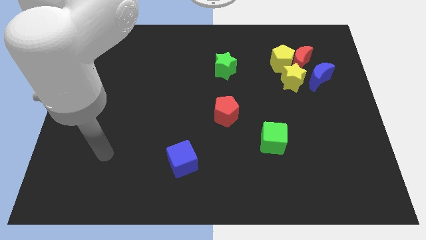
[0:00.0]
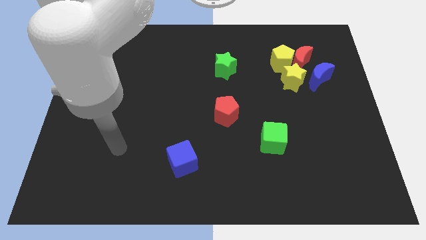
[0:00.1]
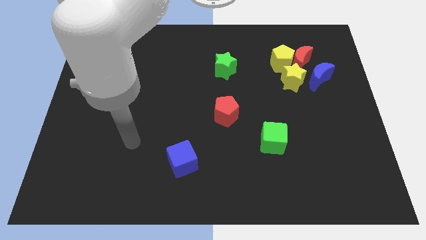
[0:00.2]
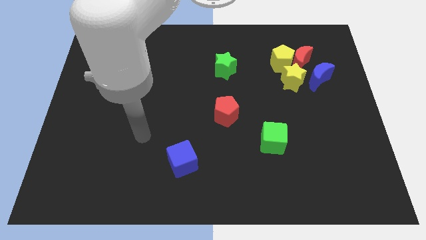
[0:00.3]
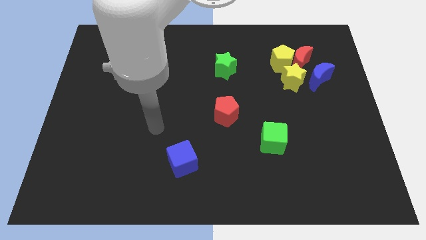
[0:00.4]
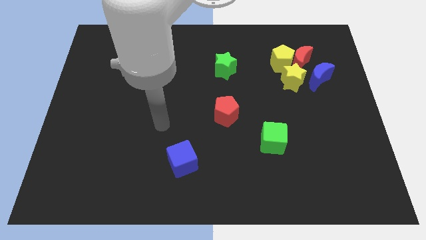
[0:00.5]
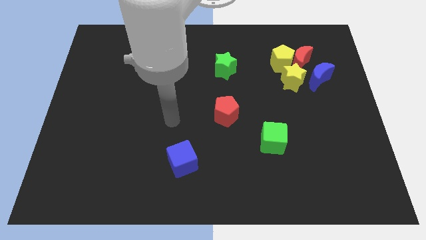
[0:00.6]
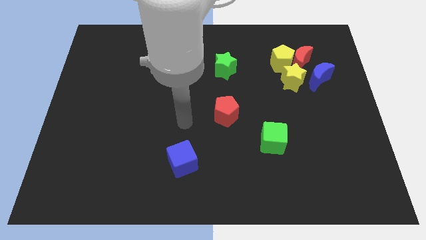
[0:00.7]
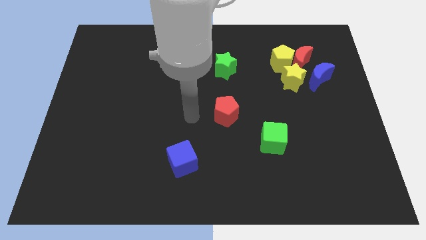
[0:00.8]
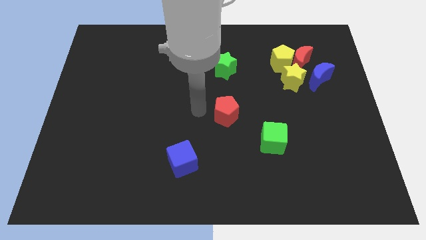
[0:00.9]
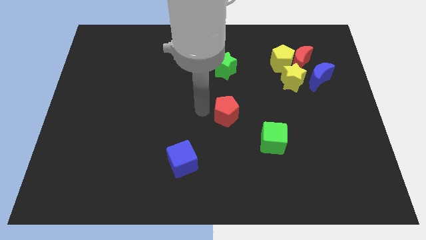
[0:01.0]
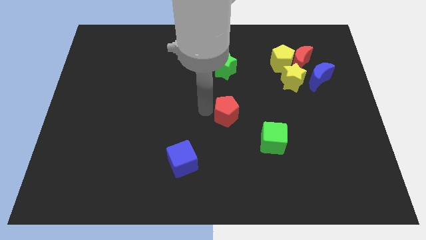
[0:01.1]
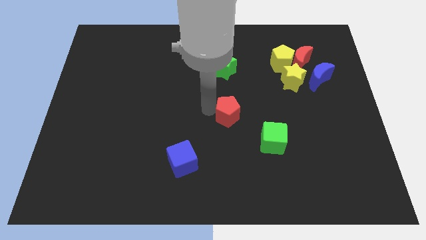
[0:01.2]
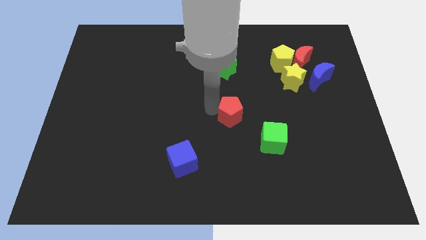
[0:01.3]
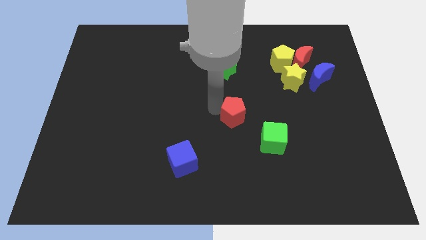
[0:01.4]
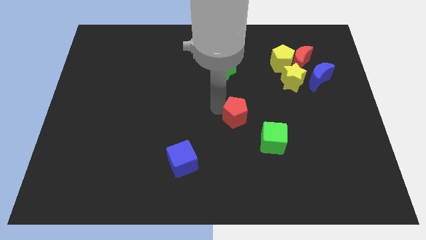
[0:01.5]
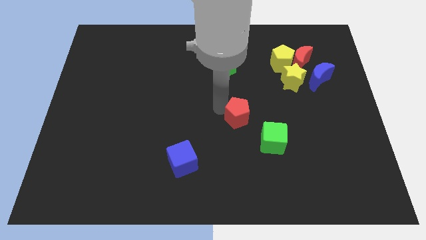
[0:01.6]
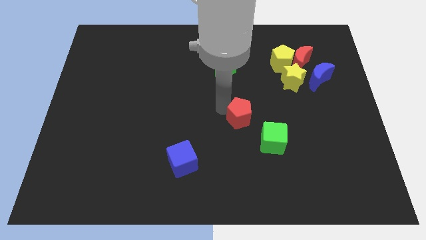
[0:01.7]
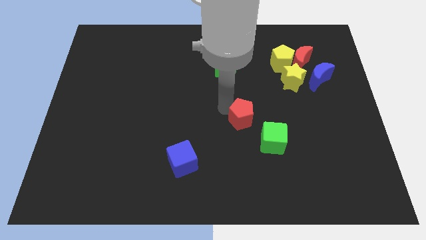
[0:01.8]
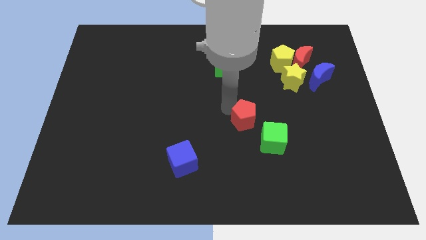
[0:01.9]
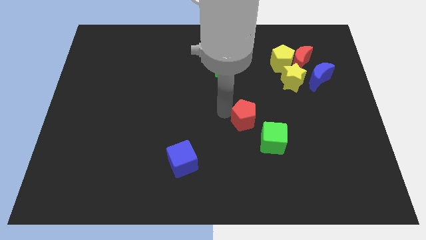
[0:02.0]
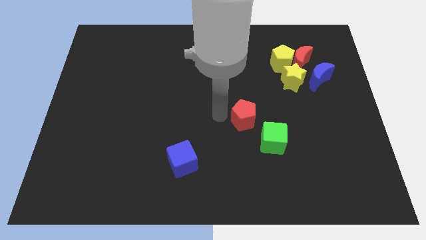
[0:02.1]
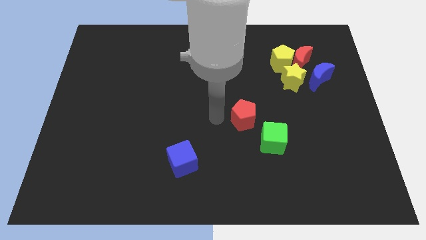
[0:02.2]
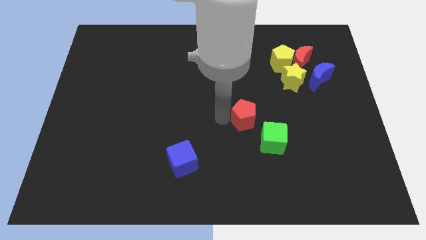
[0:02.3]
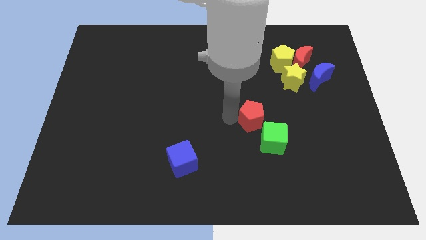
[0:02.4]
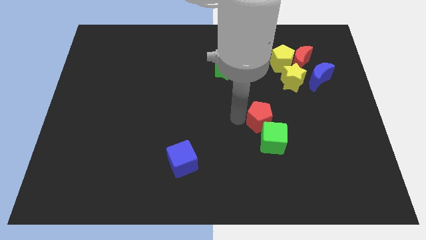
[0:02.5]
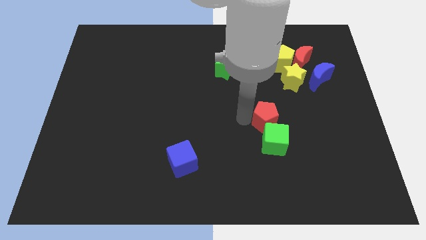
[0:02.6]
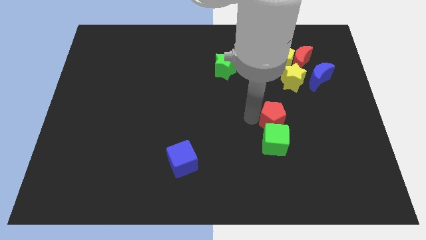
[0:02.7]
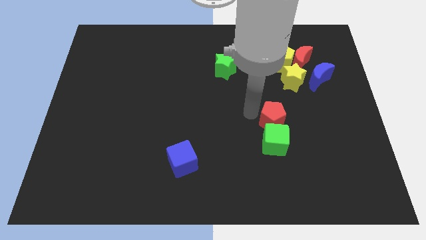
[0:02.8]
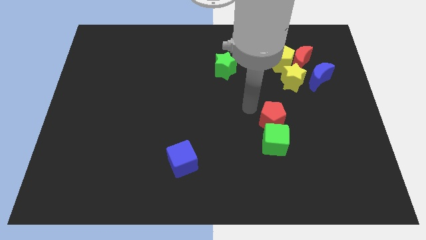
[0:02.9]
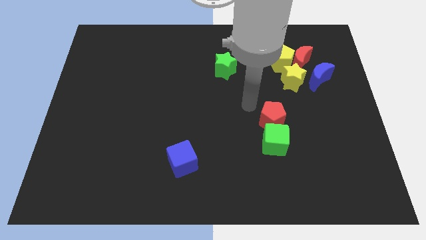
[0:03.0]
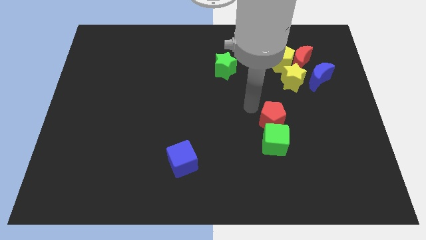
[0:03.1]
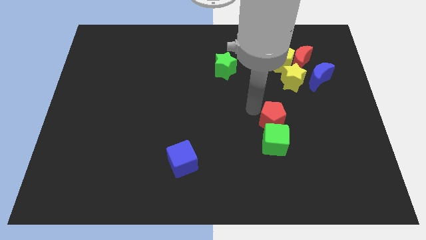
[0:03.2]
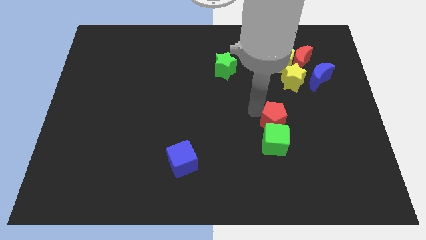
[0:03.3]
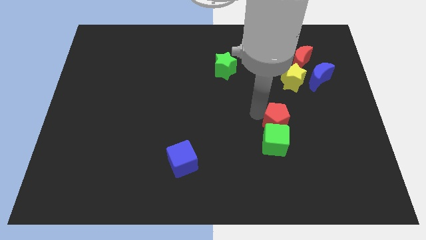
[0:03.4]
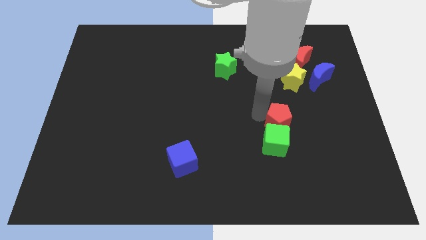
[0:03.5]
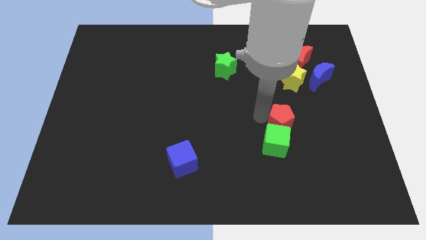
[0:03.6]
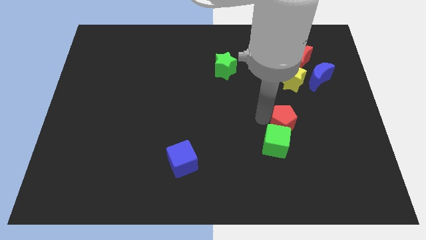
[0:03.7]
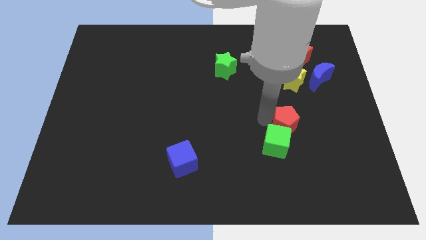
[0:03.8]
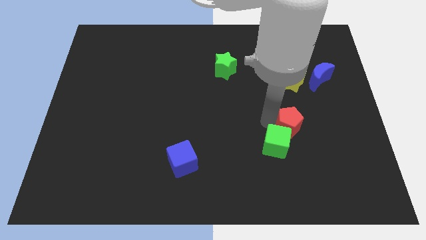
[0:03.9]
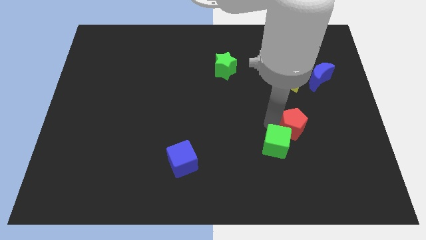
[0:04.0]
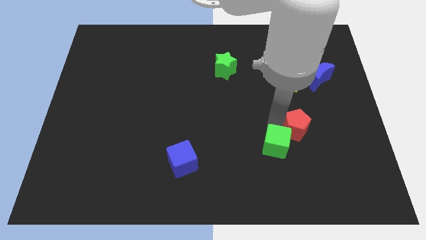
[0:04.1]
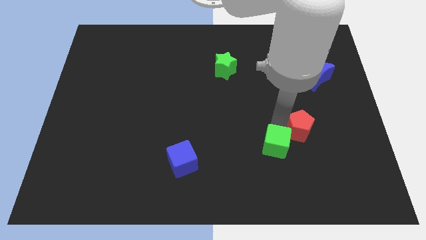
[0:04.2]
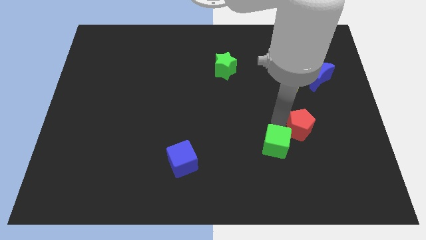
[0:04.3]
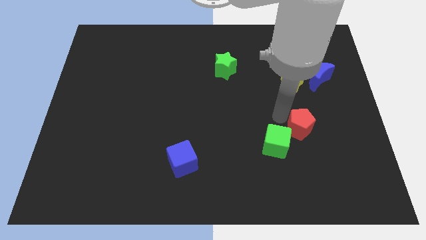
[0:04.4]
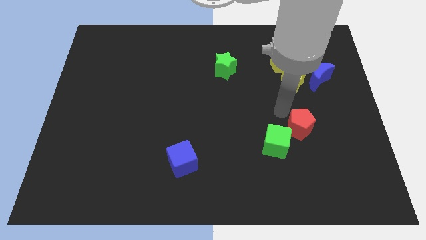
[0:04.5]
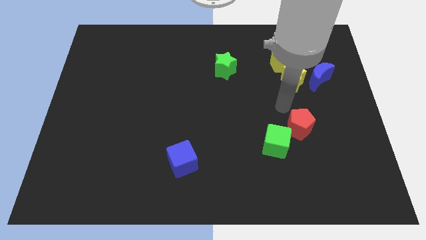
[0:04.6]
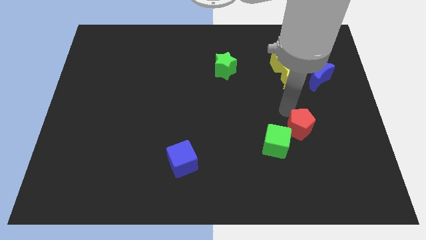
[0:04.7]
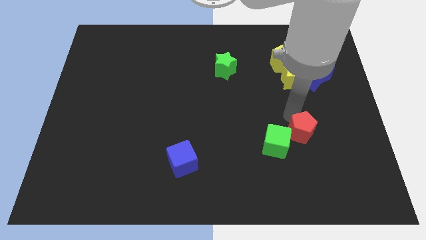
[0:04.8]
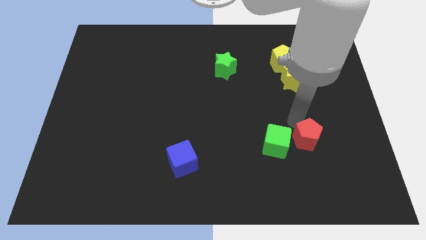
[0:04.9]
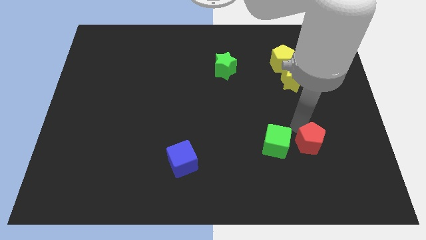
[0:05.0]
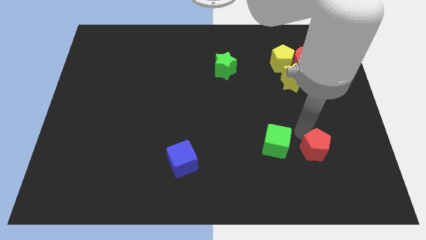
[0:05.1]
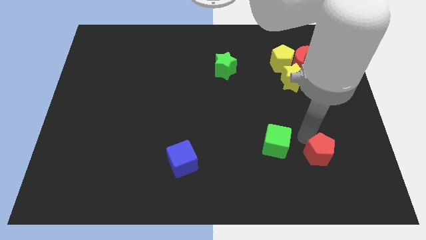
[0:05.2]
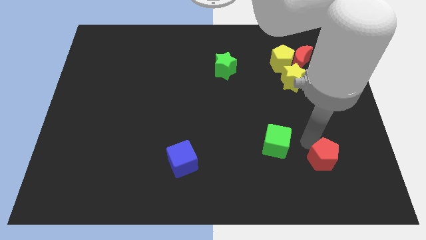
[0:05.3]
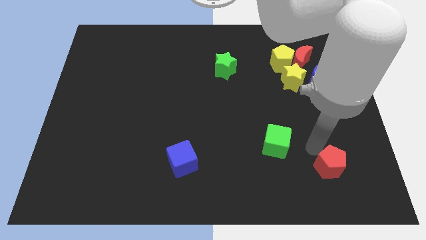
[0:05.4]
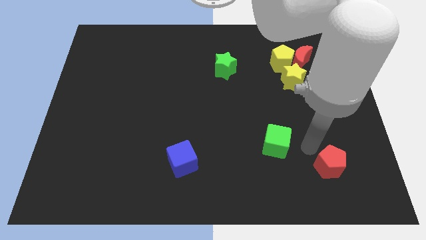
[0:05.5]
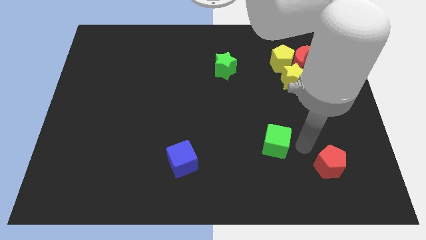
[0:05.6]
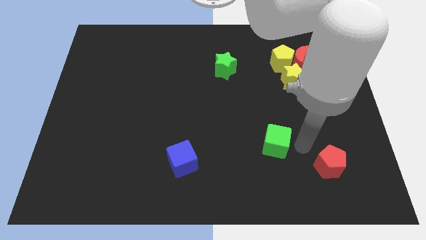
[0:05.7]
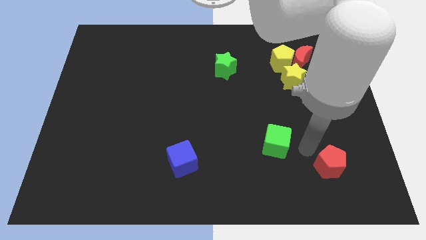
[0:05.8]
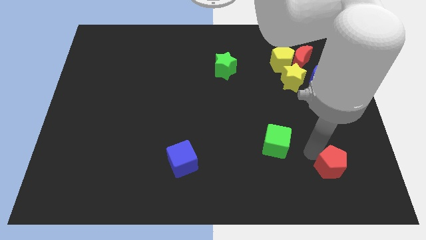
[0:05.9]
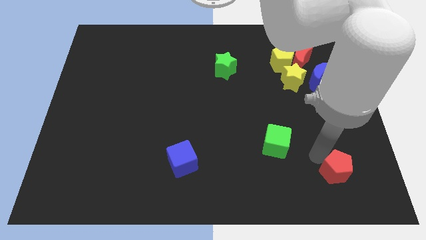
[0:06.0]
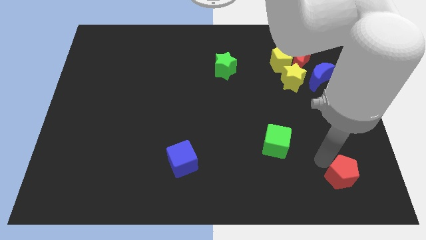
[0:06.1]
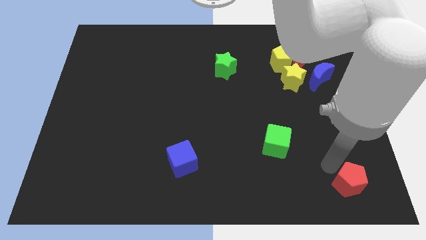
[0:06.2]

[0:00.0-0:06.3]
push the red pentagon to the lower right corner
